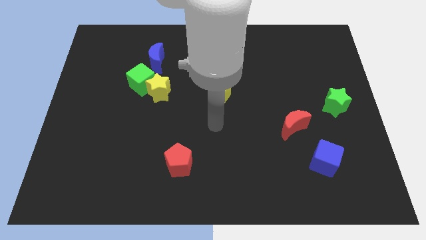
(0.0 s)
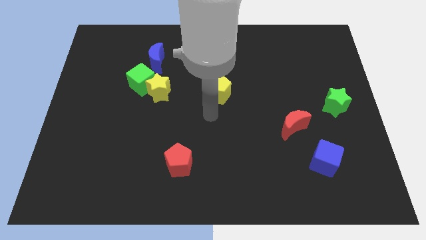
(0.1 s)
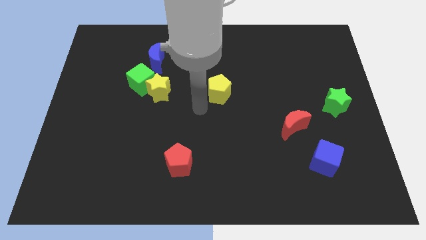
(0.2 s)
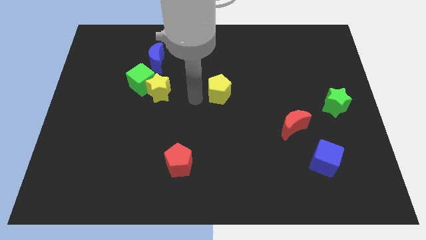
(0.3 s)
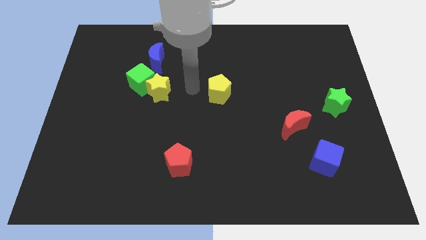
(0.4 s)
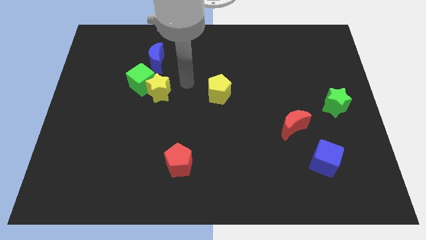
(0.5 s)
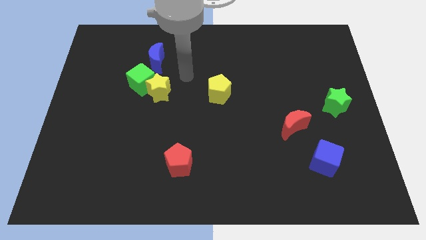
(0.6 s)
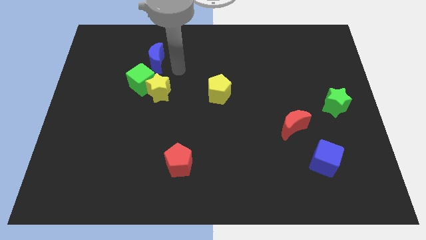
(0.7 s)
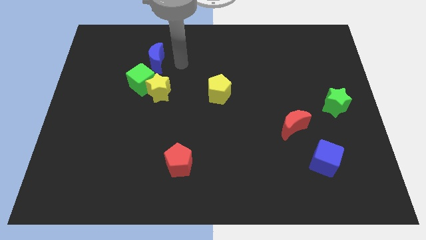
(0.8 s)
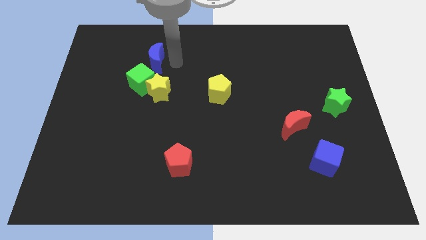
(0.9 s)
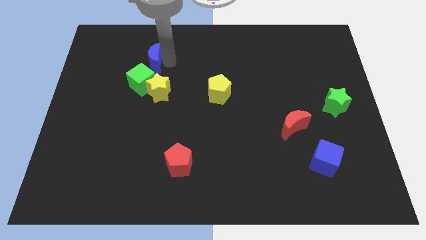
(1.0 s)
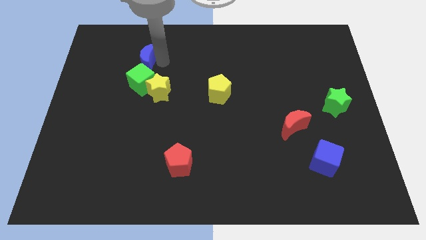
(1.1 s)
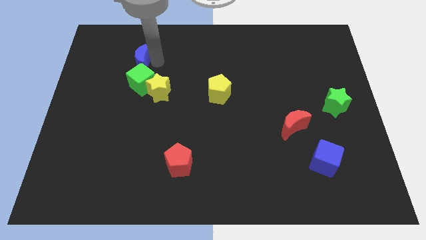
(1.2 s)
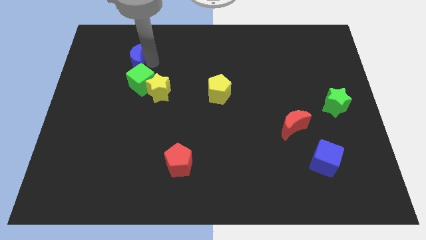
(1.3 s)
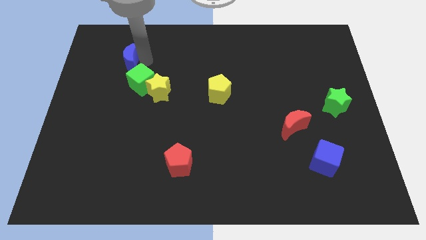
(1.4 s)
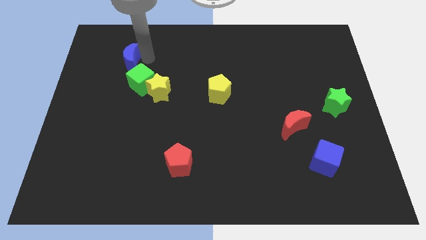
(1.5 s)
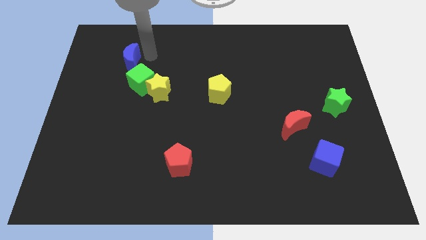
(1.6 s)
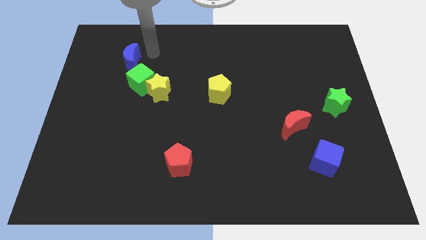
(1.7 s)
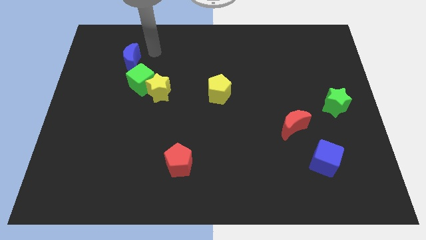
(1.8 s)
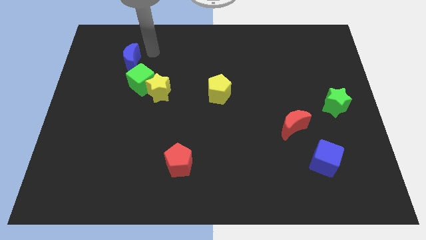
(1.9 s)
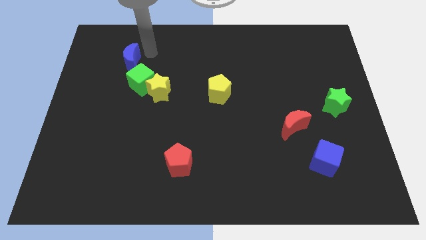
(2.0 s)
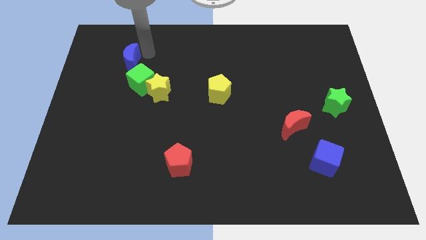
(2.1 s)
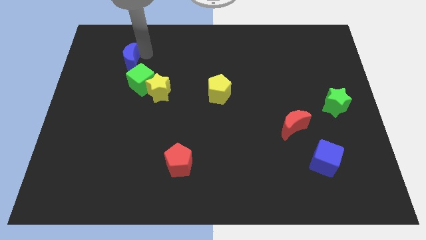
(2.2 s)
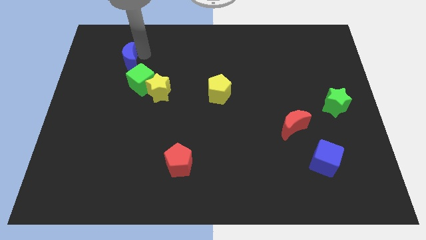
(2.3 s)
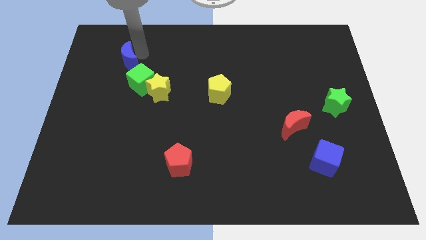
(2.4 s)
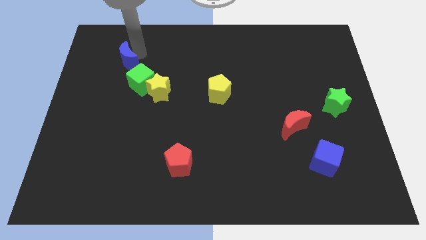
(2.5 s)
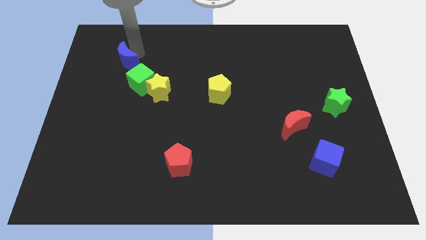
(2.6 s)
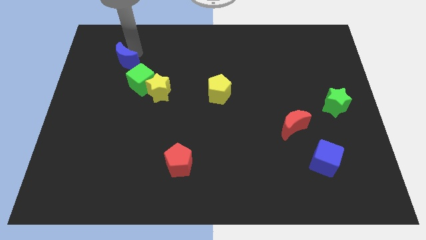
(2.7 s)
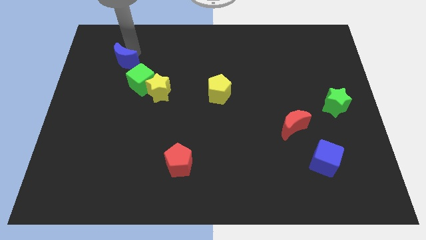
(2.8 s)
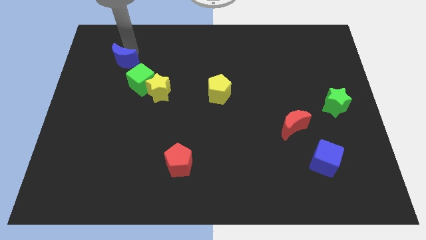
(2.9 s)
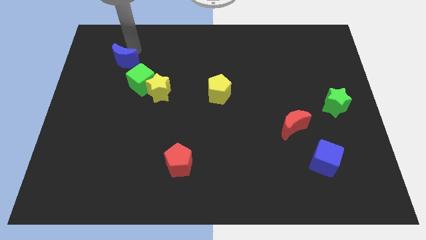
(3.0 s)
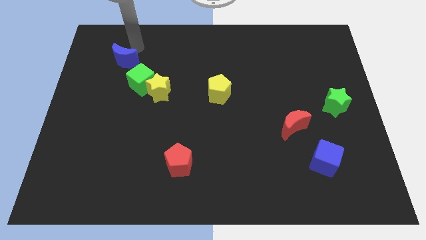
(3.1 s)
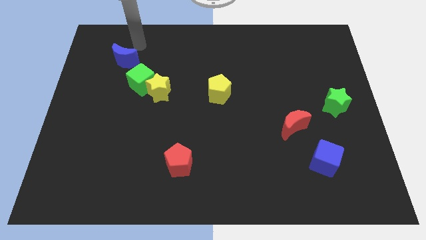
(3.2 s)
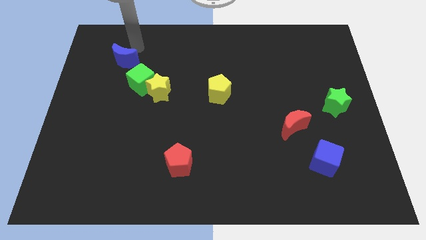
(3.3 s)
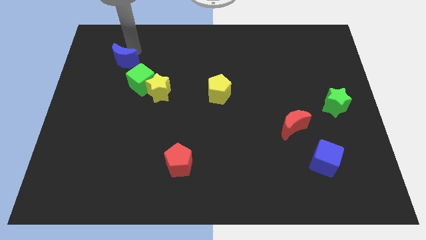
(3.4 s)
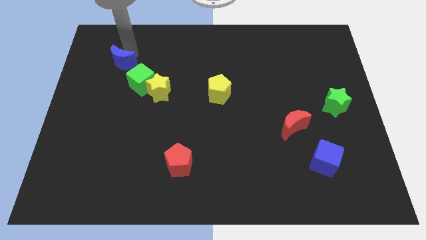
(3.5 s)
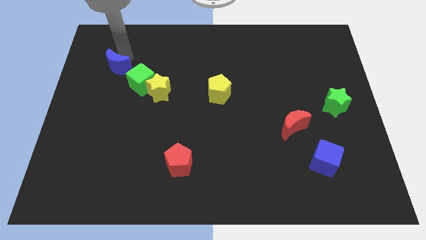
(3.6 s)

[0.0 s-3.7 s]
slide the blue moon somewhat down and then left

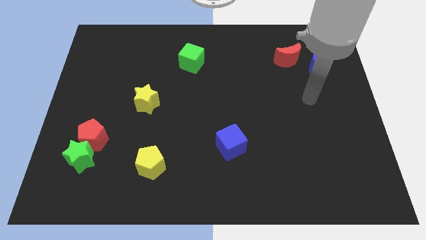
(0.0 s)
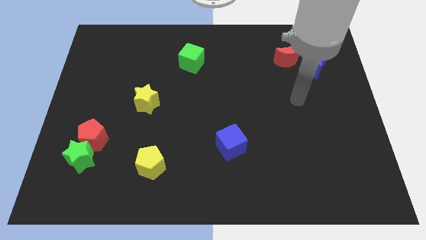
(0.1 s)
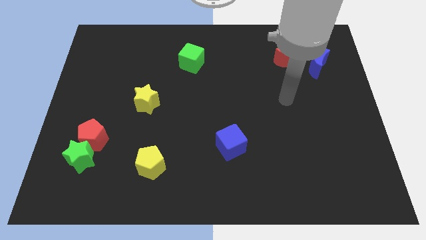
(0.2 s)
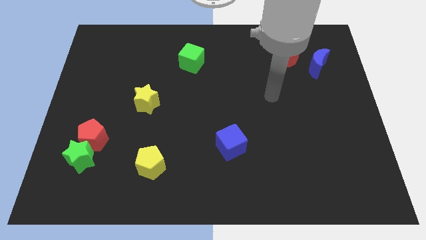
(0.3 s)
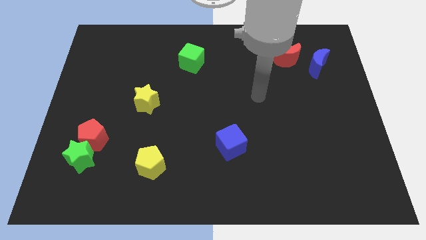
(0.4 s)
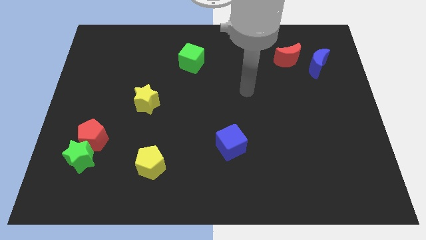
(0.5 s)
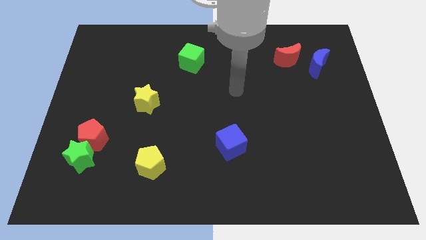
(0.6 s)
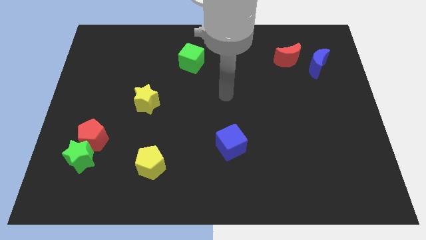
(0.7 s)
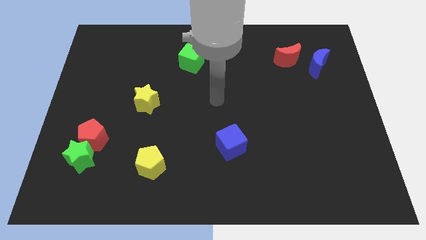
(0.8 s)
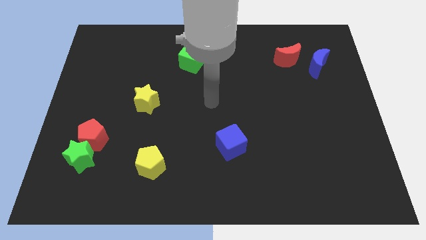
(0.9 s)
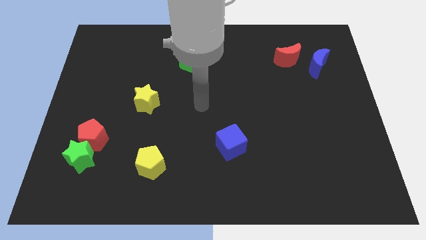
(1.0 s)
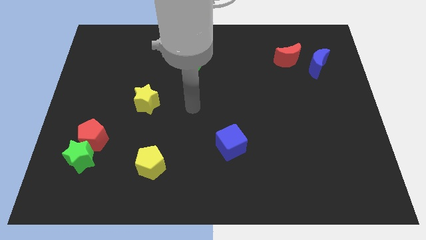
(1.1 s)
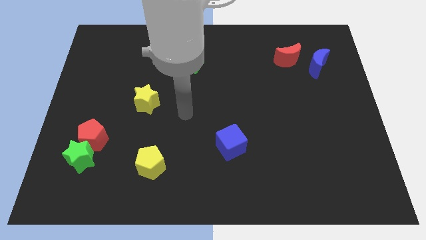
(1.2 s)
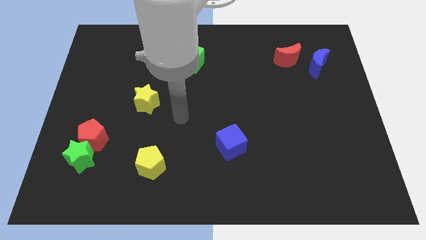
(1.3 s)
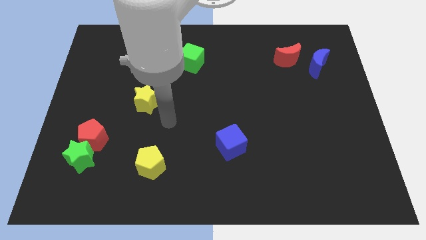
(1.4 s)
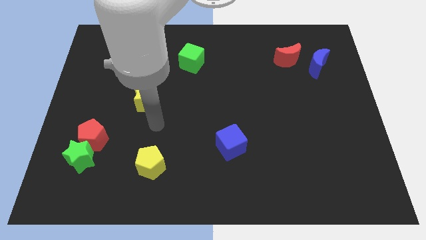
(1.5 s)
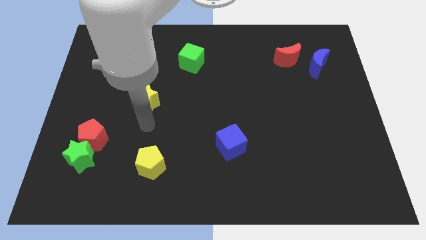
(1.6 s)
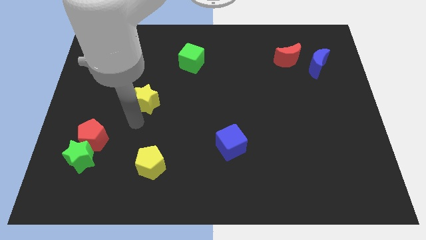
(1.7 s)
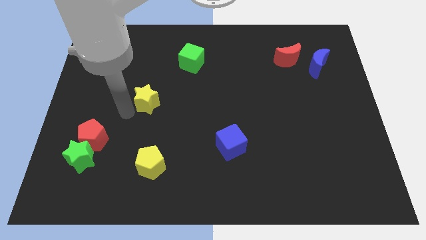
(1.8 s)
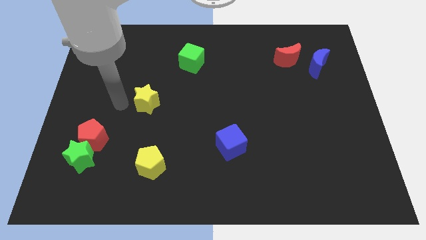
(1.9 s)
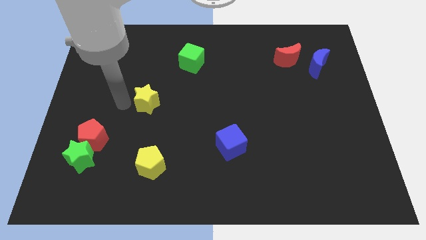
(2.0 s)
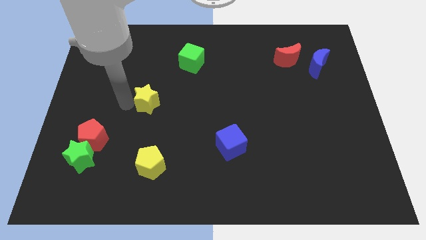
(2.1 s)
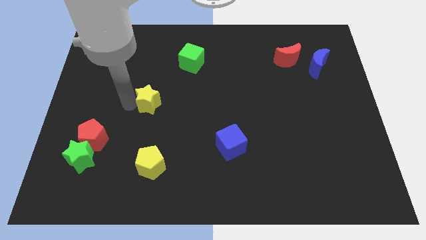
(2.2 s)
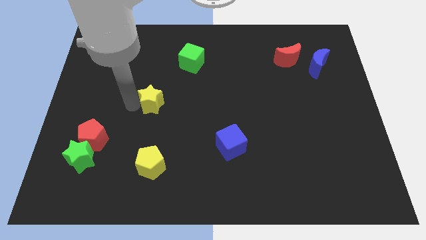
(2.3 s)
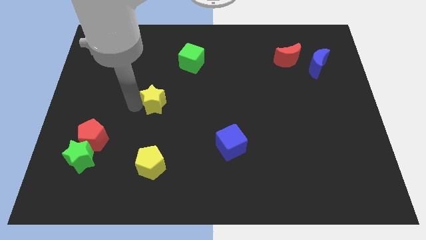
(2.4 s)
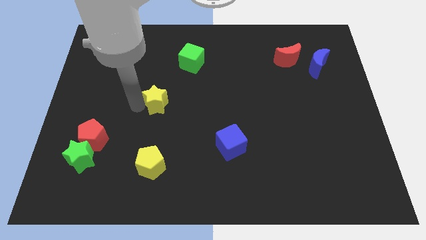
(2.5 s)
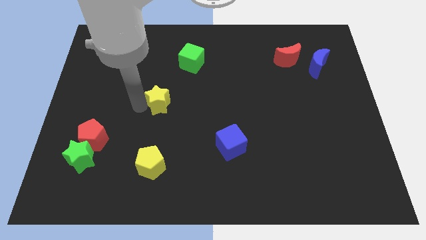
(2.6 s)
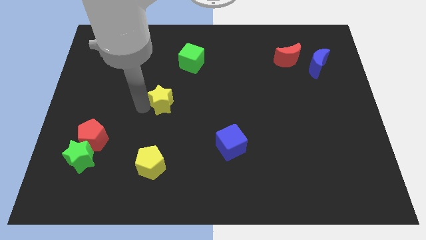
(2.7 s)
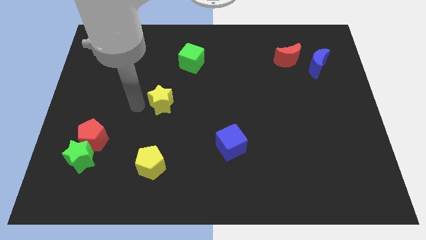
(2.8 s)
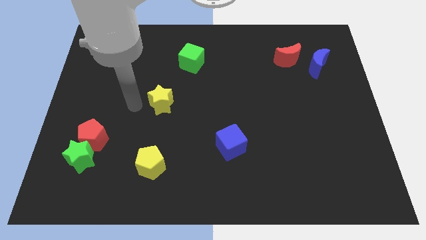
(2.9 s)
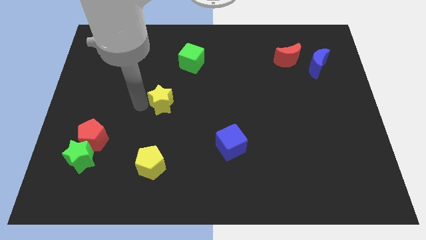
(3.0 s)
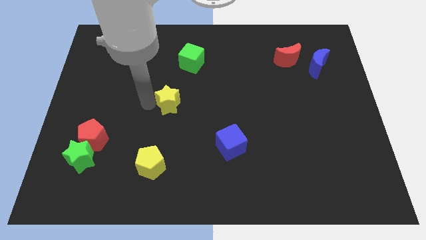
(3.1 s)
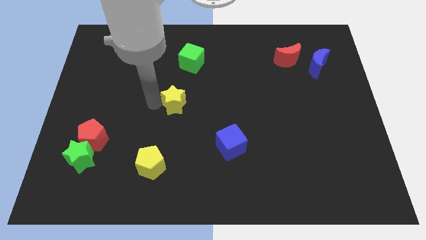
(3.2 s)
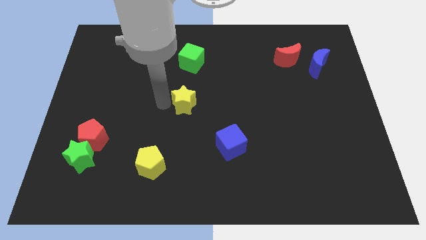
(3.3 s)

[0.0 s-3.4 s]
move the yellow star right a bit

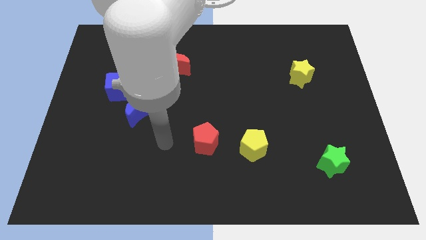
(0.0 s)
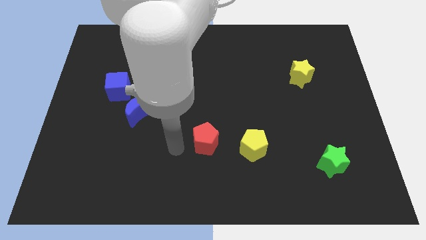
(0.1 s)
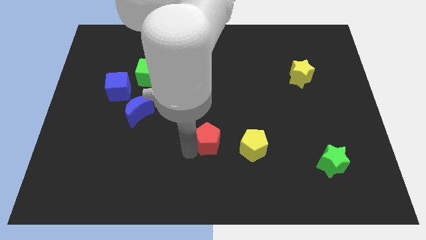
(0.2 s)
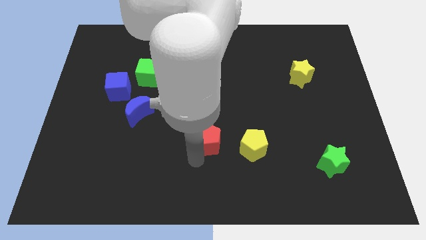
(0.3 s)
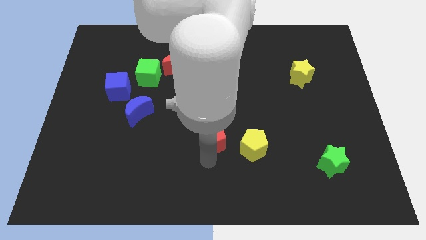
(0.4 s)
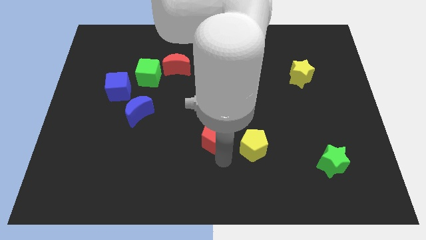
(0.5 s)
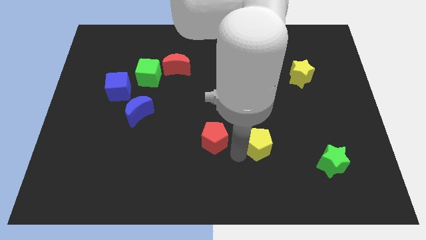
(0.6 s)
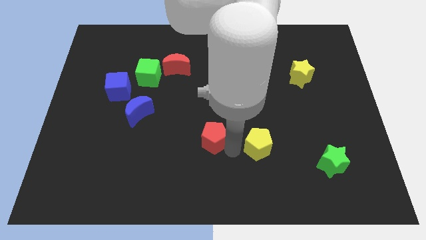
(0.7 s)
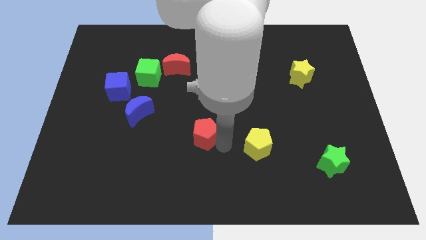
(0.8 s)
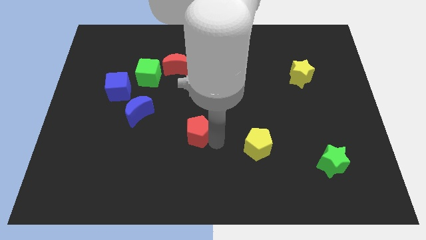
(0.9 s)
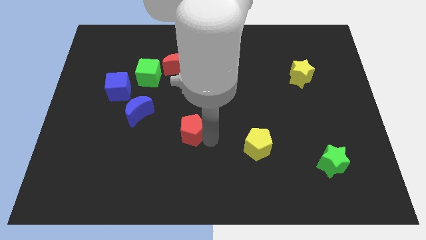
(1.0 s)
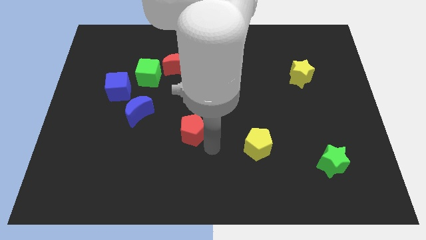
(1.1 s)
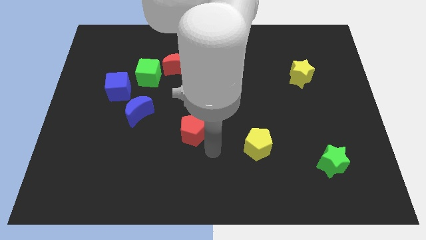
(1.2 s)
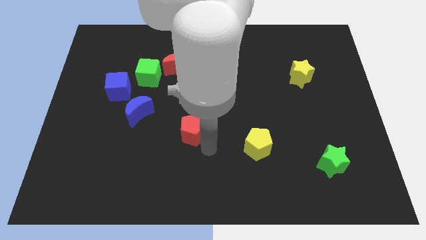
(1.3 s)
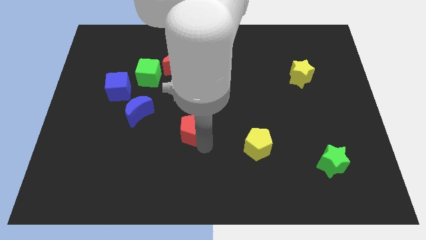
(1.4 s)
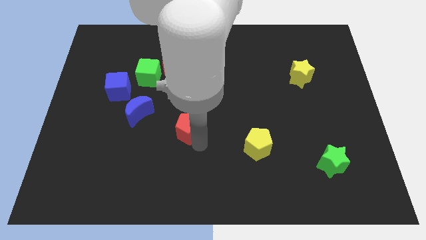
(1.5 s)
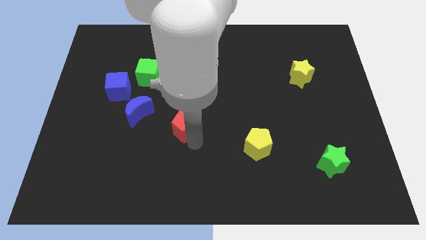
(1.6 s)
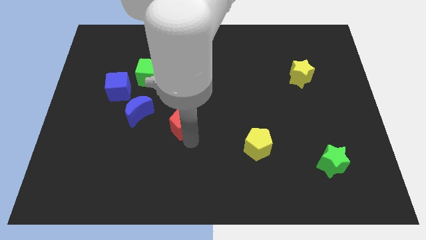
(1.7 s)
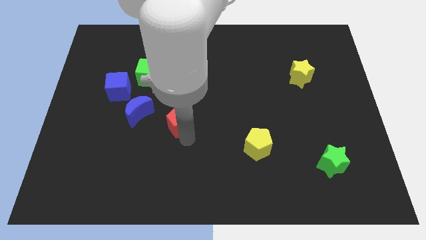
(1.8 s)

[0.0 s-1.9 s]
slide the red pentagon a little bit upwards and left
